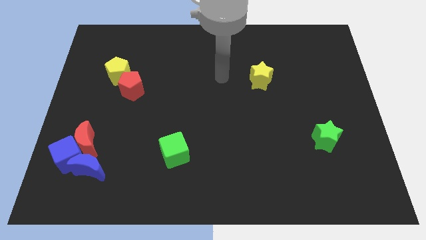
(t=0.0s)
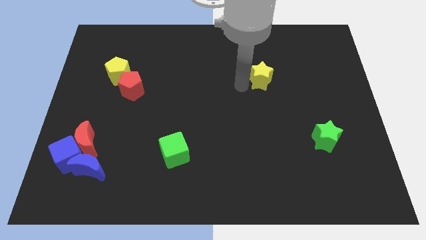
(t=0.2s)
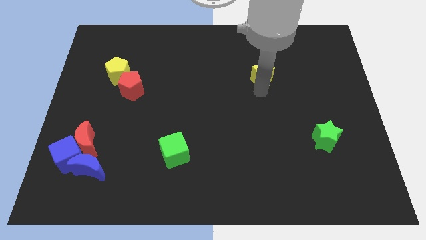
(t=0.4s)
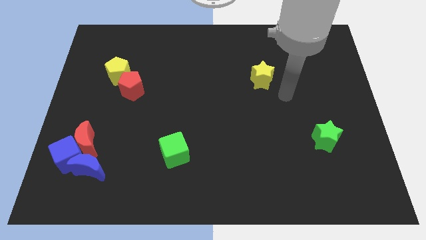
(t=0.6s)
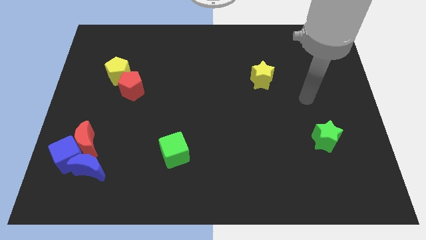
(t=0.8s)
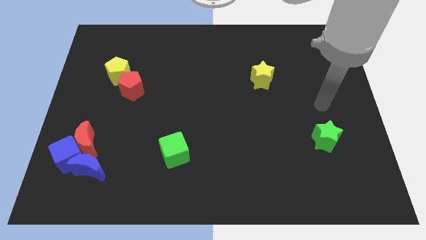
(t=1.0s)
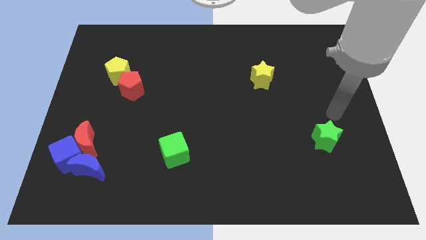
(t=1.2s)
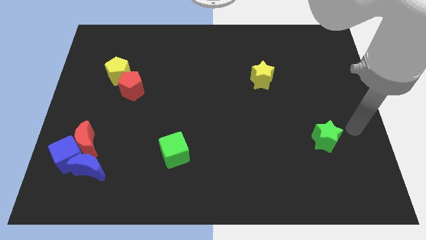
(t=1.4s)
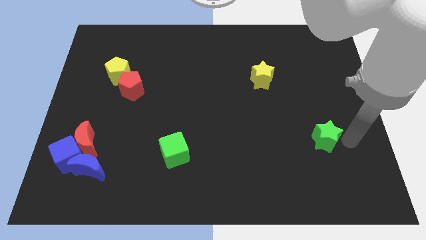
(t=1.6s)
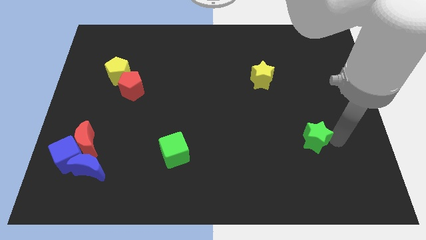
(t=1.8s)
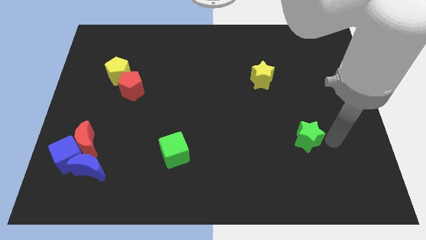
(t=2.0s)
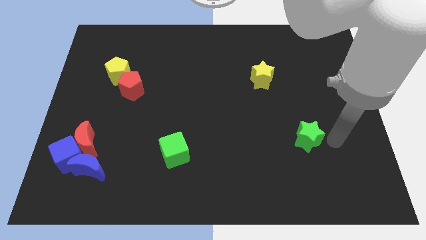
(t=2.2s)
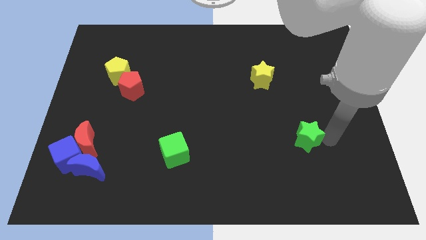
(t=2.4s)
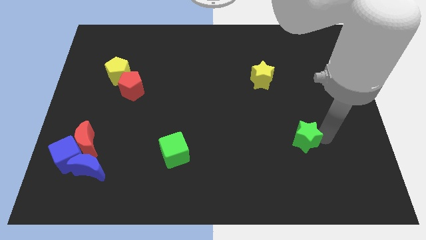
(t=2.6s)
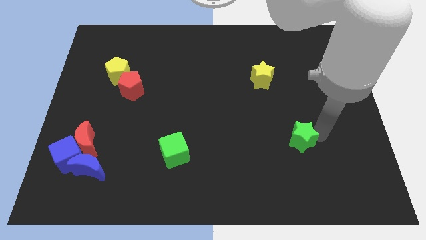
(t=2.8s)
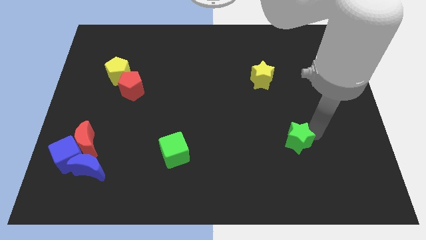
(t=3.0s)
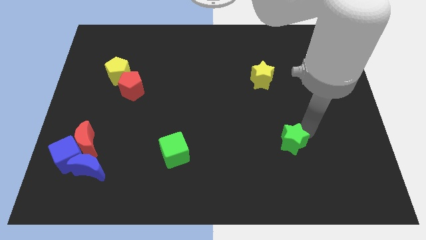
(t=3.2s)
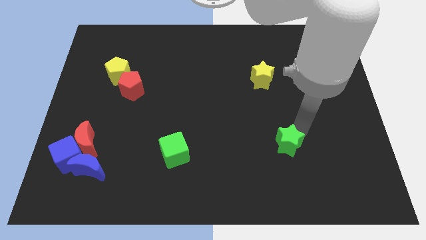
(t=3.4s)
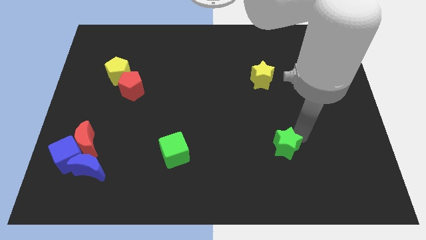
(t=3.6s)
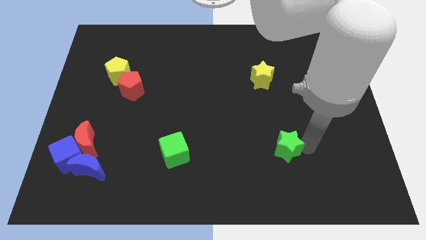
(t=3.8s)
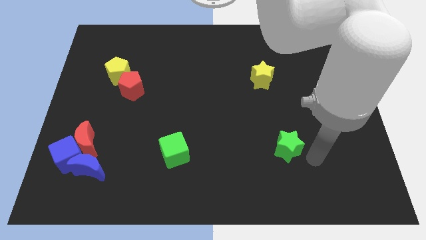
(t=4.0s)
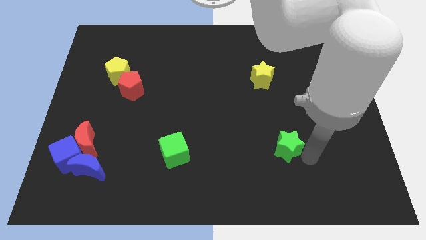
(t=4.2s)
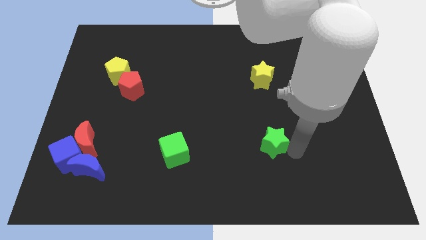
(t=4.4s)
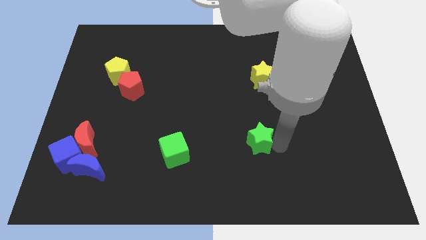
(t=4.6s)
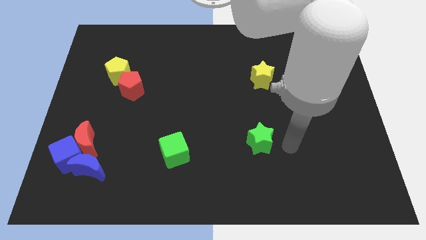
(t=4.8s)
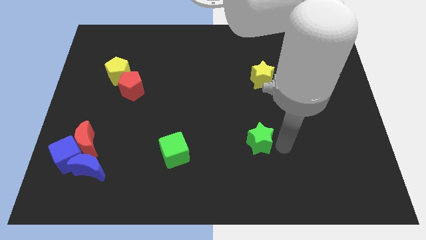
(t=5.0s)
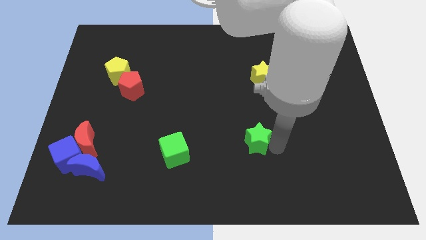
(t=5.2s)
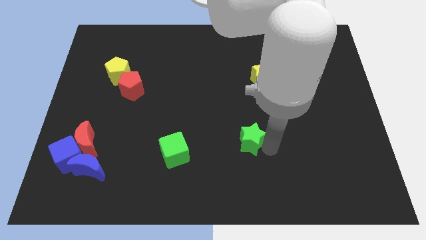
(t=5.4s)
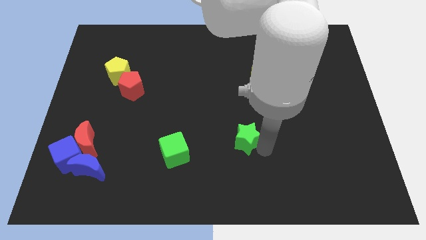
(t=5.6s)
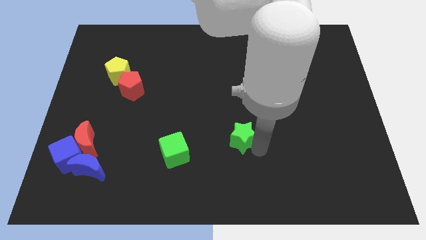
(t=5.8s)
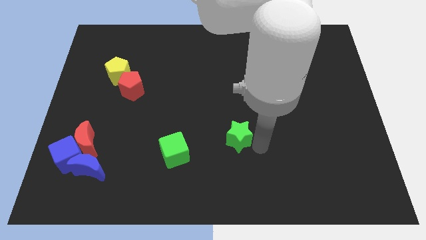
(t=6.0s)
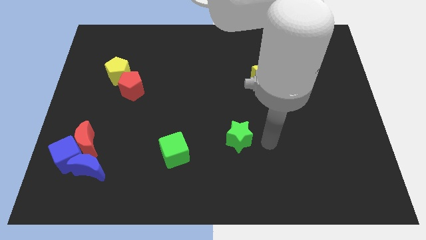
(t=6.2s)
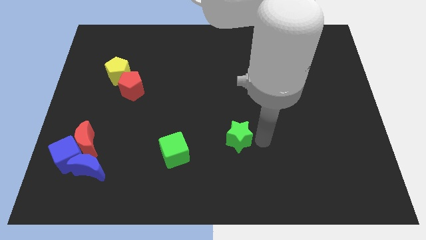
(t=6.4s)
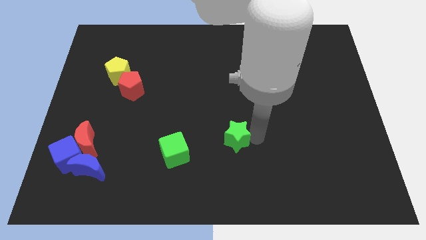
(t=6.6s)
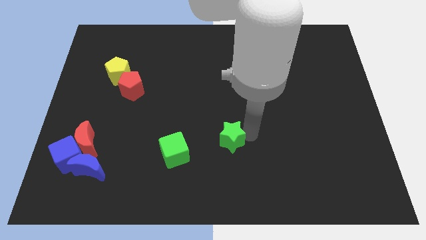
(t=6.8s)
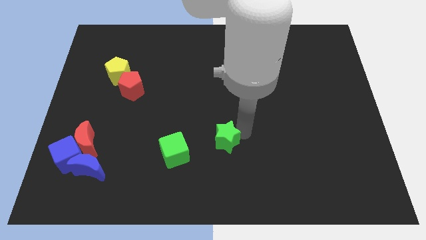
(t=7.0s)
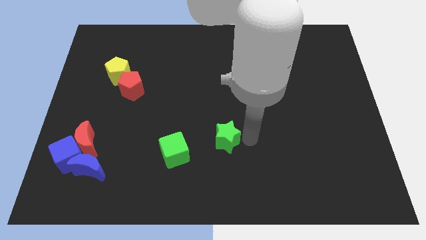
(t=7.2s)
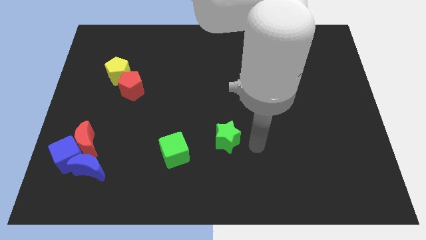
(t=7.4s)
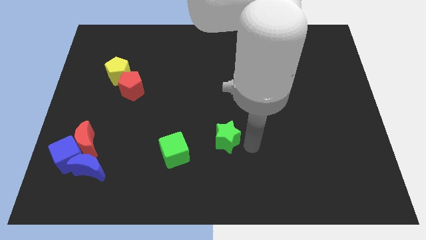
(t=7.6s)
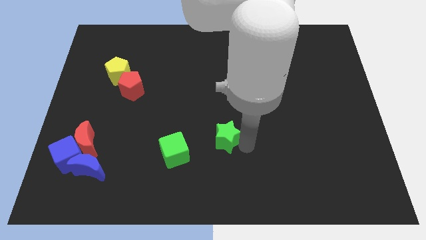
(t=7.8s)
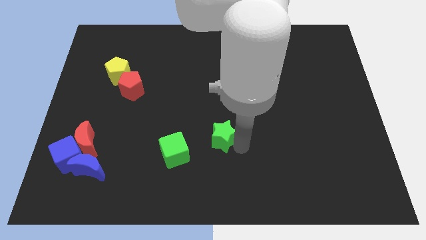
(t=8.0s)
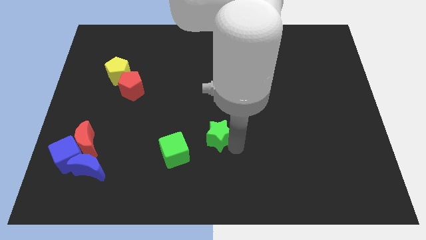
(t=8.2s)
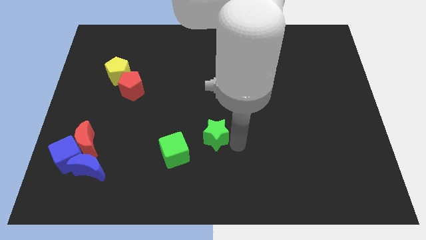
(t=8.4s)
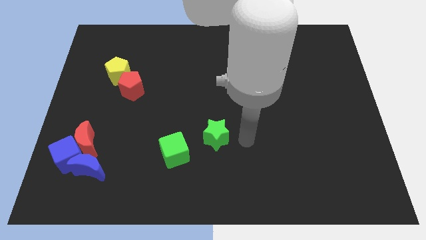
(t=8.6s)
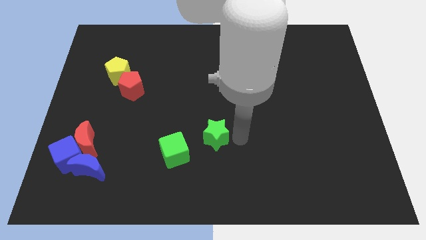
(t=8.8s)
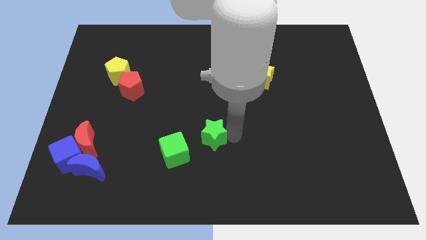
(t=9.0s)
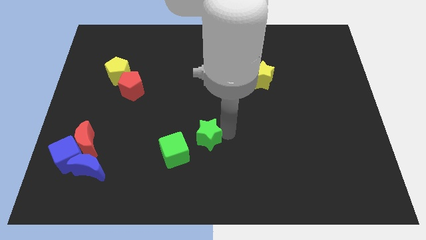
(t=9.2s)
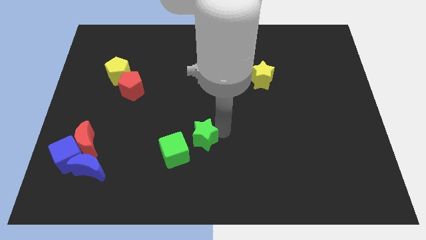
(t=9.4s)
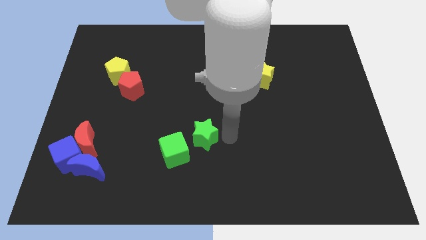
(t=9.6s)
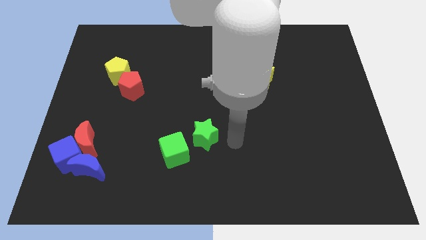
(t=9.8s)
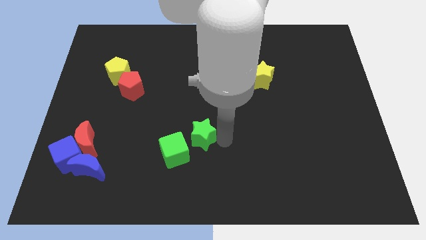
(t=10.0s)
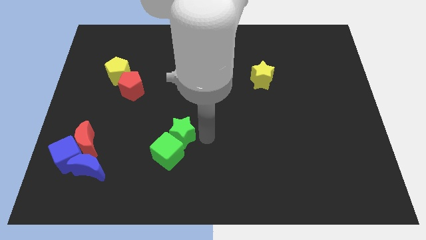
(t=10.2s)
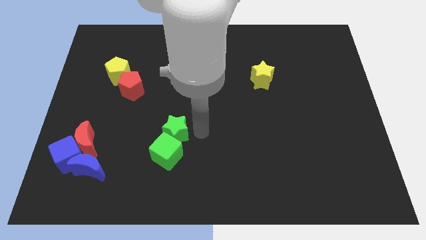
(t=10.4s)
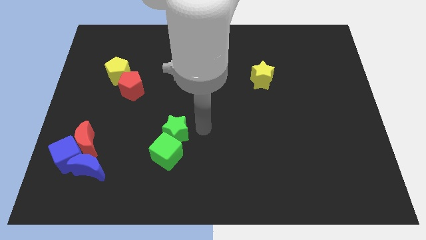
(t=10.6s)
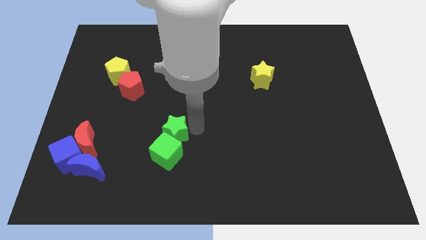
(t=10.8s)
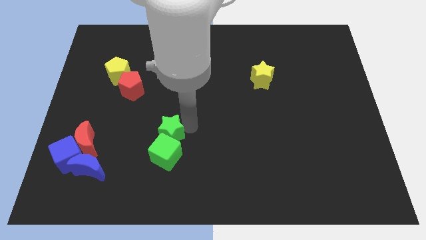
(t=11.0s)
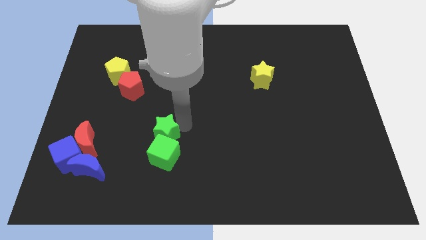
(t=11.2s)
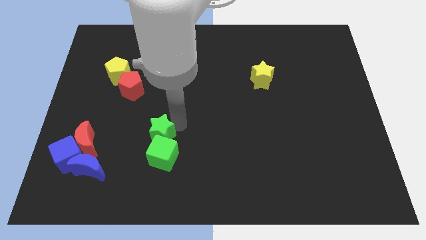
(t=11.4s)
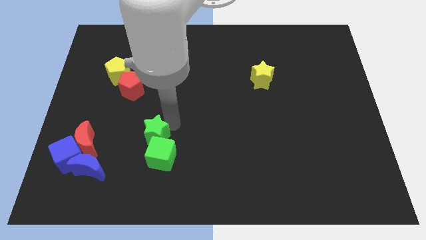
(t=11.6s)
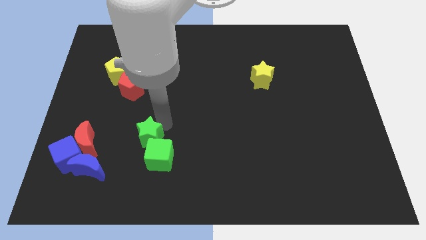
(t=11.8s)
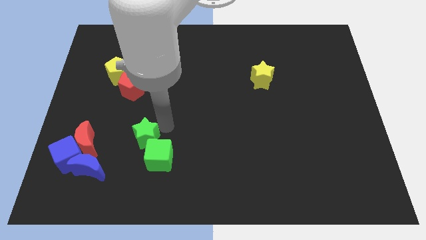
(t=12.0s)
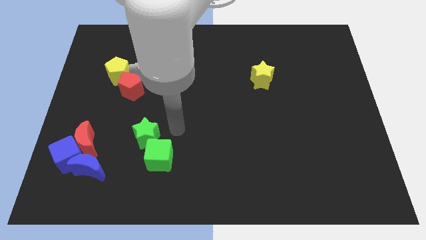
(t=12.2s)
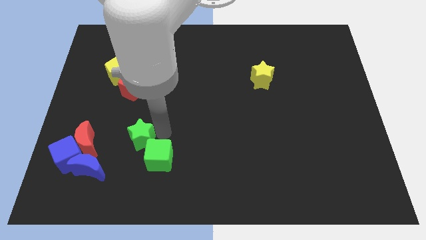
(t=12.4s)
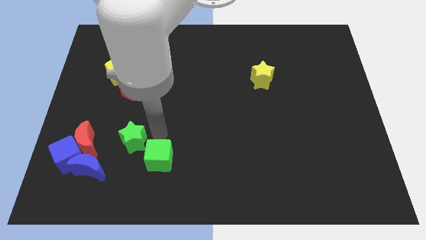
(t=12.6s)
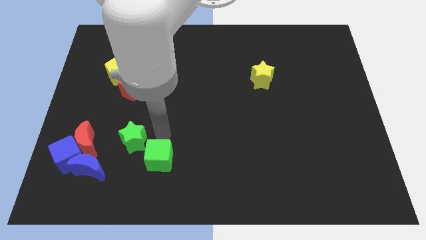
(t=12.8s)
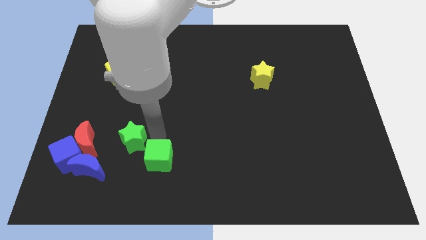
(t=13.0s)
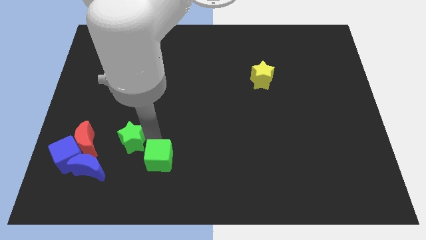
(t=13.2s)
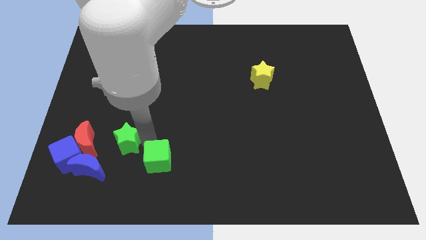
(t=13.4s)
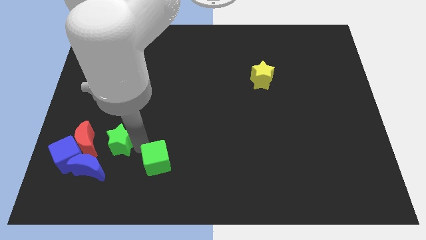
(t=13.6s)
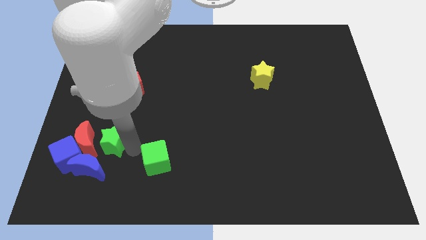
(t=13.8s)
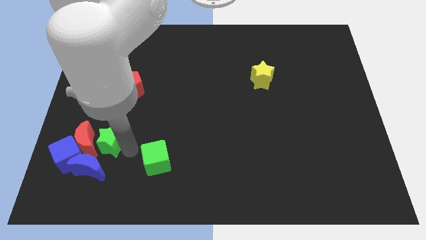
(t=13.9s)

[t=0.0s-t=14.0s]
push the green star to the red moon

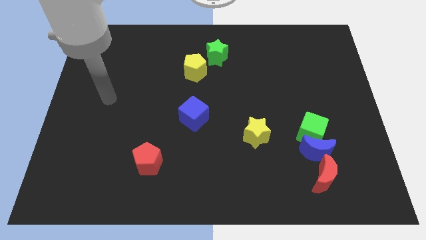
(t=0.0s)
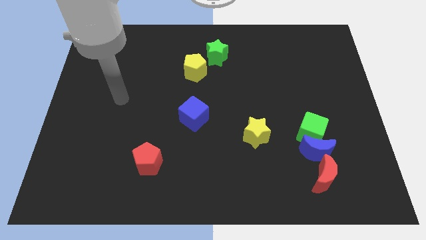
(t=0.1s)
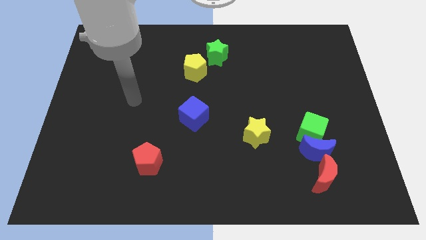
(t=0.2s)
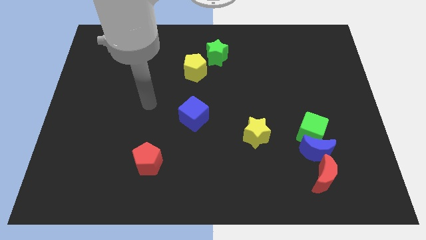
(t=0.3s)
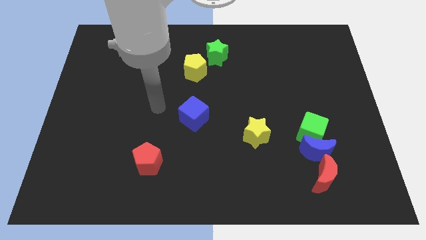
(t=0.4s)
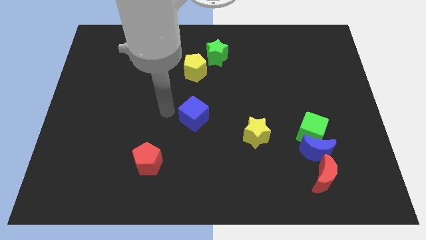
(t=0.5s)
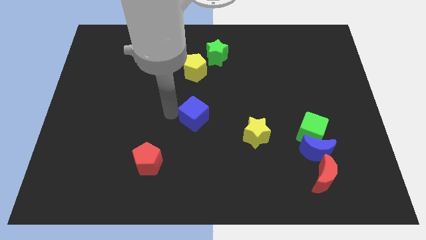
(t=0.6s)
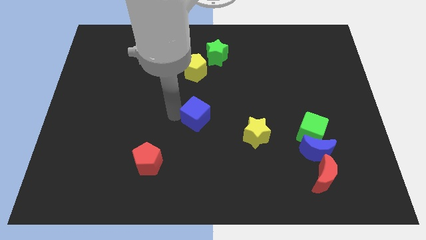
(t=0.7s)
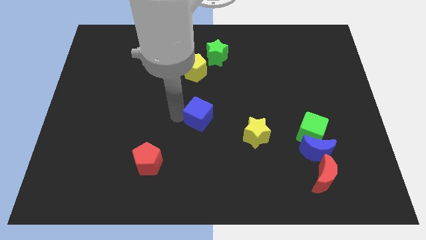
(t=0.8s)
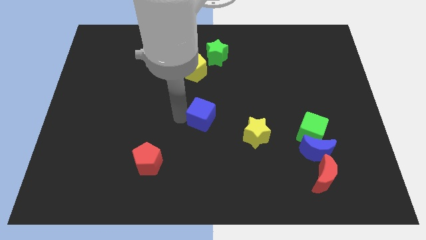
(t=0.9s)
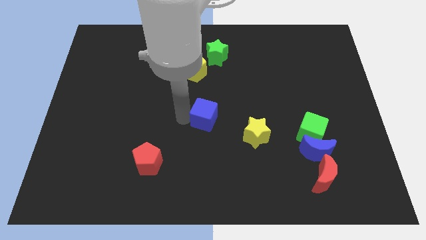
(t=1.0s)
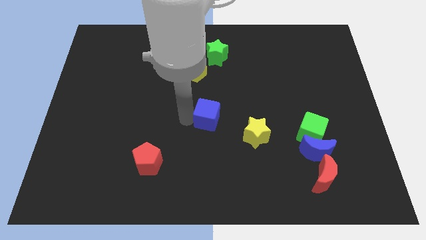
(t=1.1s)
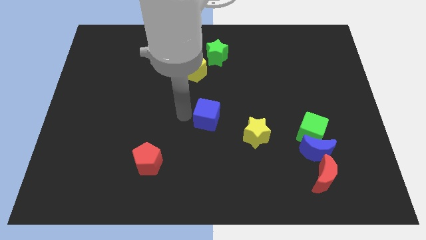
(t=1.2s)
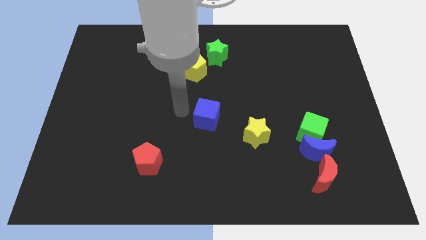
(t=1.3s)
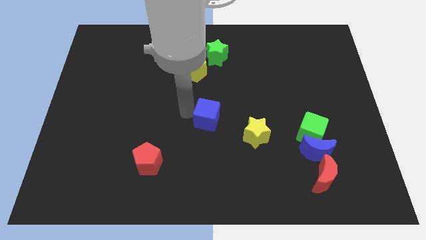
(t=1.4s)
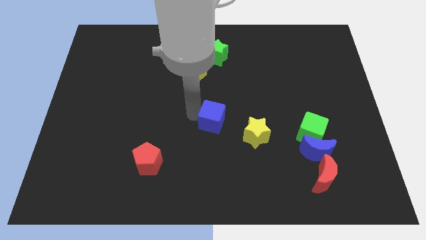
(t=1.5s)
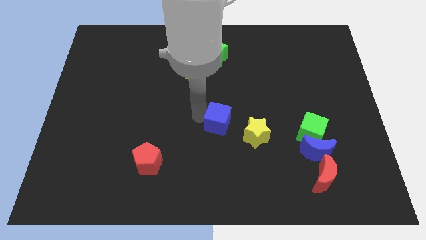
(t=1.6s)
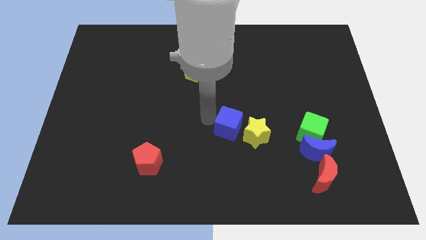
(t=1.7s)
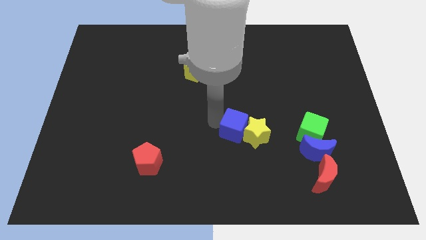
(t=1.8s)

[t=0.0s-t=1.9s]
move the blue cube next to the yellow star
